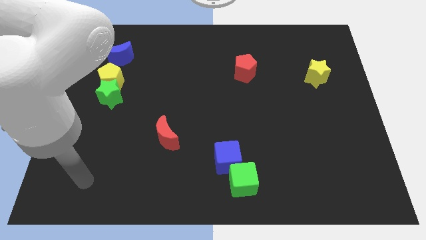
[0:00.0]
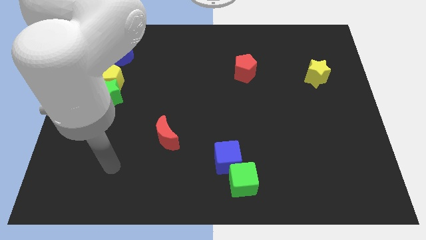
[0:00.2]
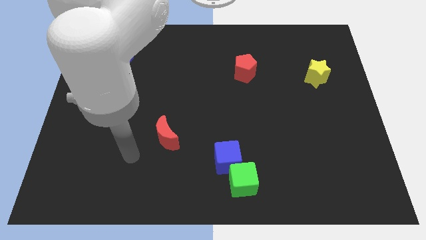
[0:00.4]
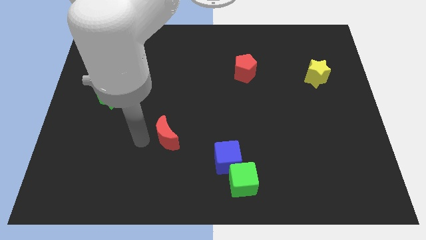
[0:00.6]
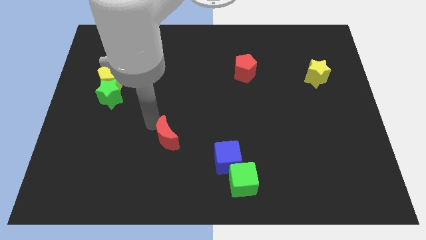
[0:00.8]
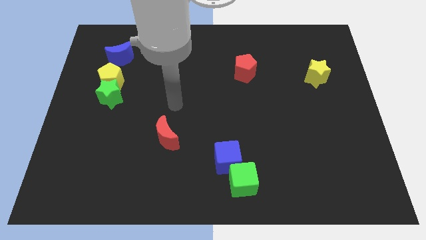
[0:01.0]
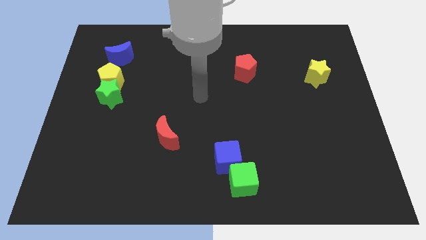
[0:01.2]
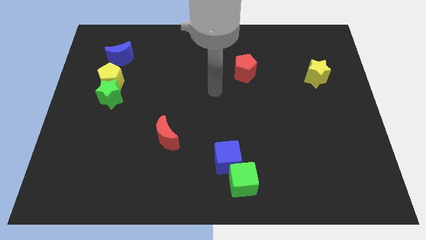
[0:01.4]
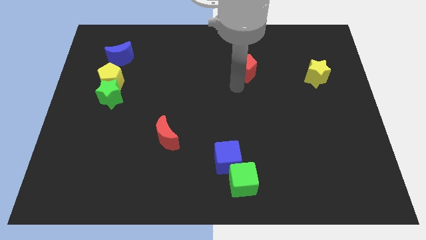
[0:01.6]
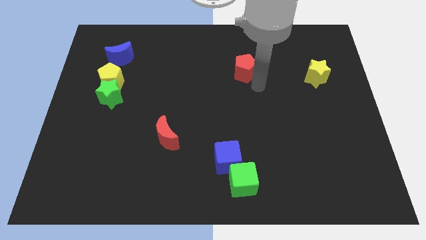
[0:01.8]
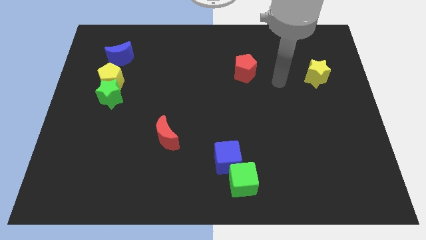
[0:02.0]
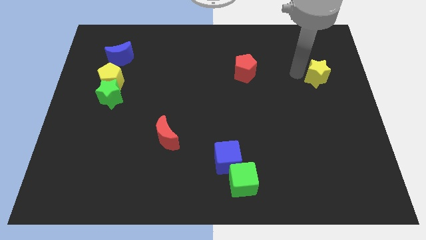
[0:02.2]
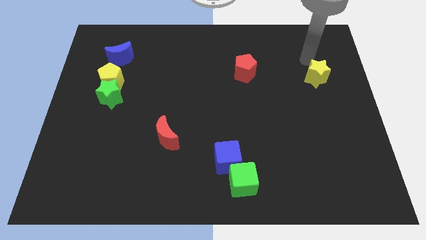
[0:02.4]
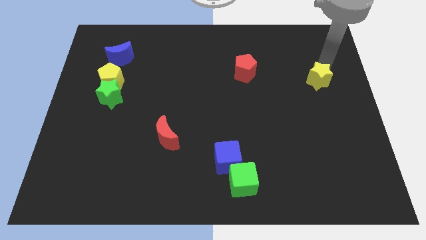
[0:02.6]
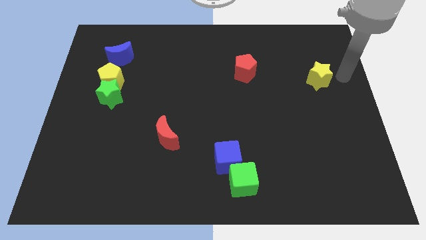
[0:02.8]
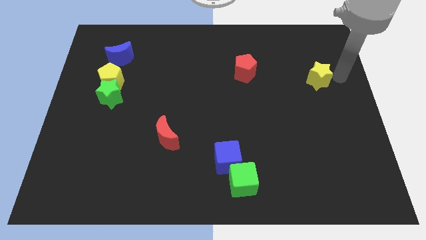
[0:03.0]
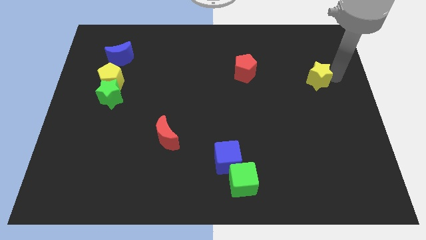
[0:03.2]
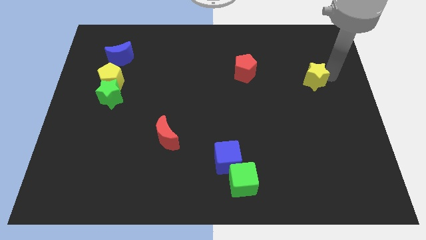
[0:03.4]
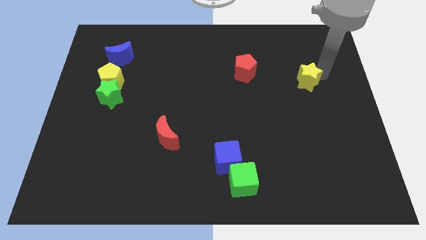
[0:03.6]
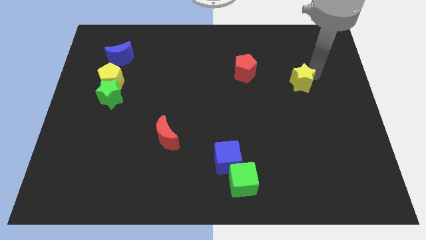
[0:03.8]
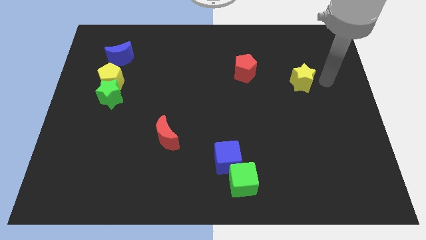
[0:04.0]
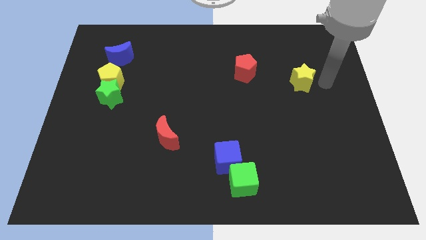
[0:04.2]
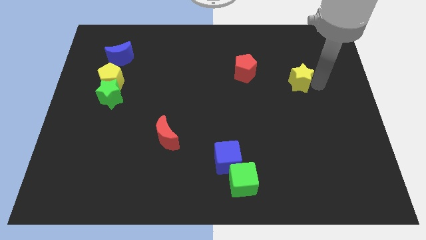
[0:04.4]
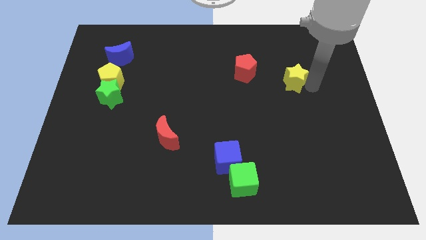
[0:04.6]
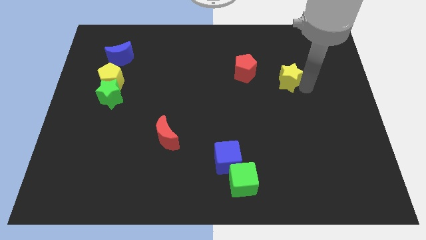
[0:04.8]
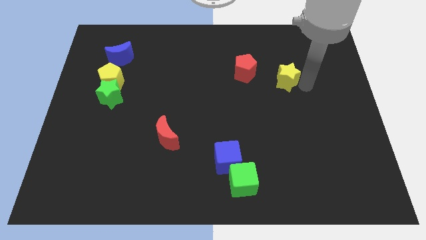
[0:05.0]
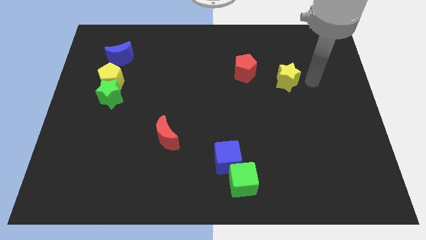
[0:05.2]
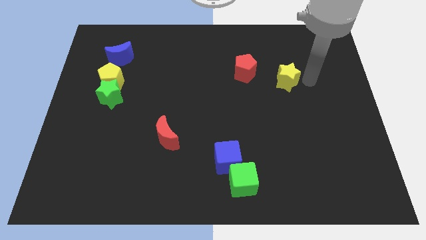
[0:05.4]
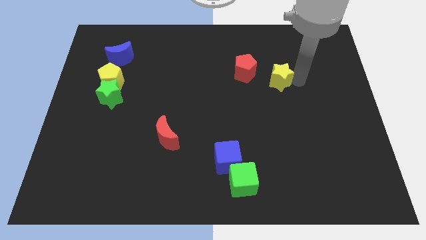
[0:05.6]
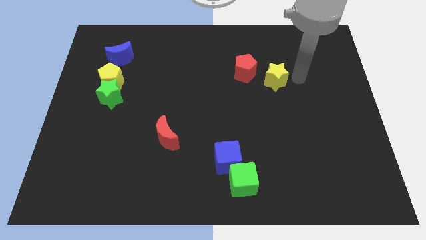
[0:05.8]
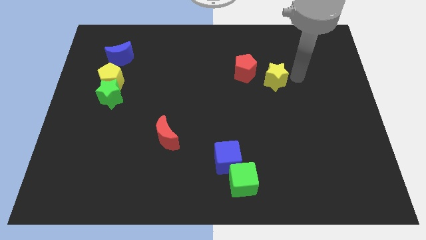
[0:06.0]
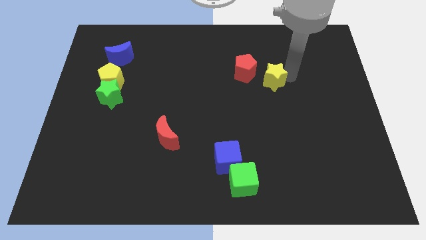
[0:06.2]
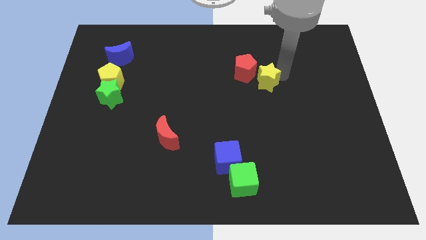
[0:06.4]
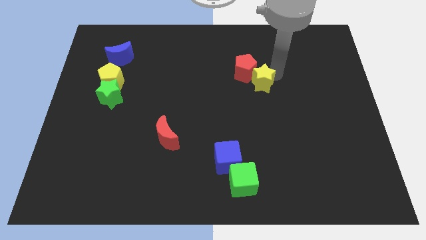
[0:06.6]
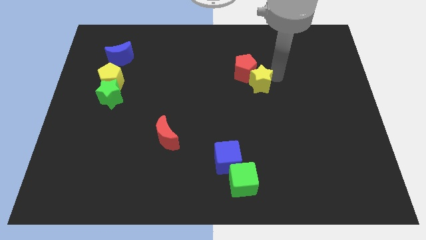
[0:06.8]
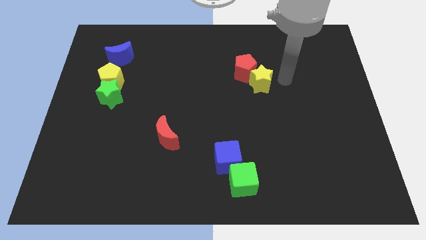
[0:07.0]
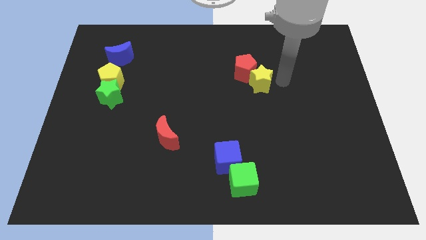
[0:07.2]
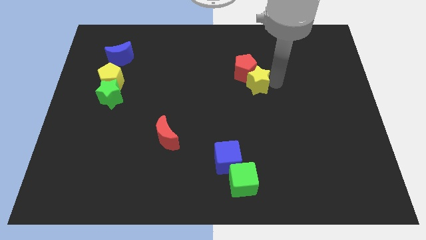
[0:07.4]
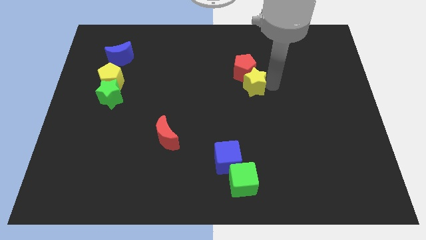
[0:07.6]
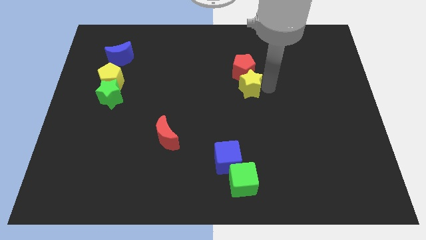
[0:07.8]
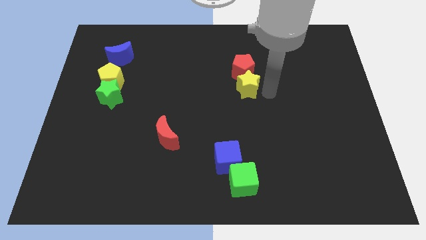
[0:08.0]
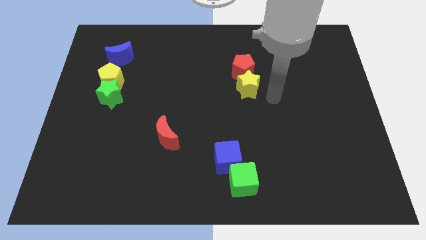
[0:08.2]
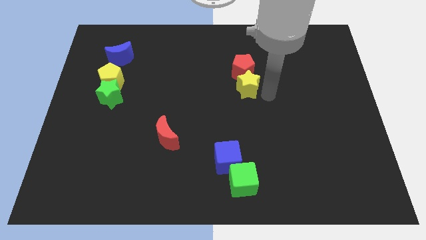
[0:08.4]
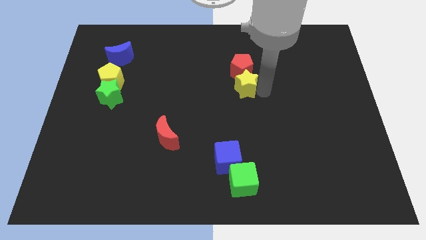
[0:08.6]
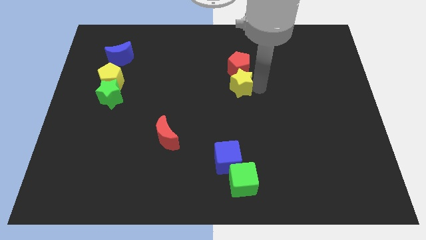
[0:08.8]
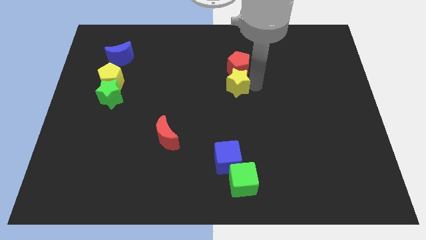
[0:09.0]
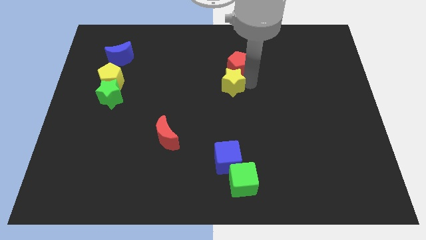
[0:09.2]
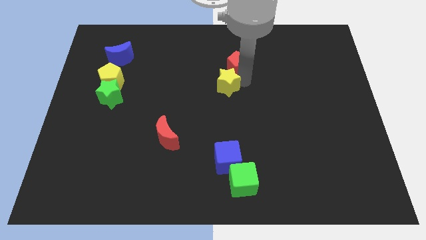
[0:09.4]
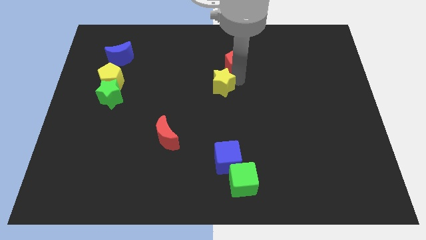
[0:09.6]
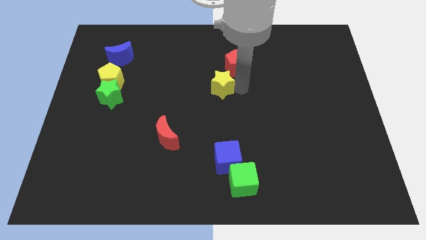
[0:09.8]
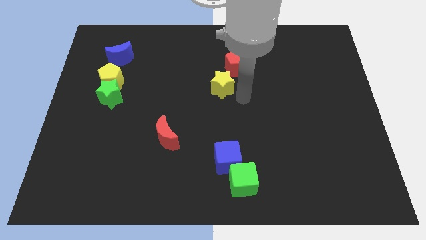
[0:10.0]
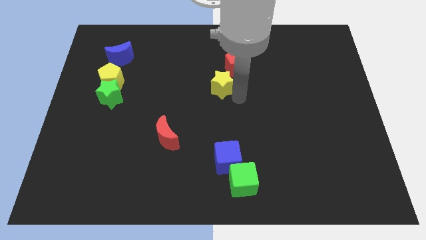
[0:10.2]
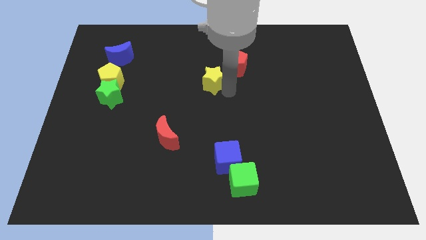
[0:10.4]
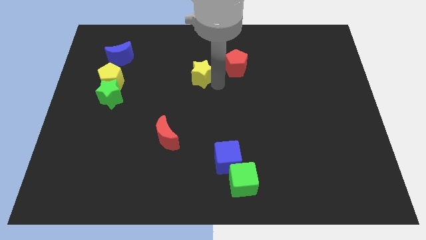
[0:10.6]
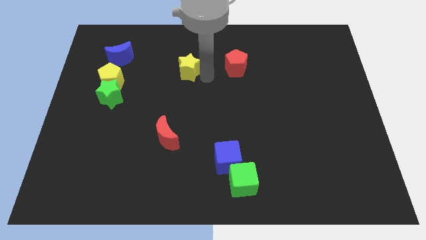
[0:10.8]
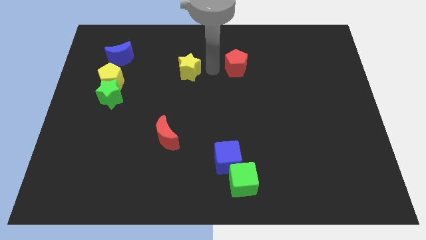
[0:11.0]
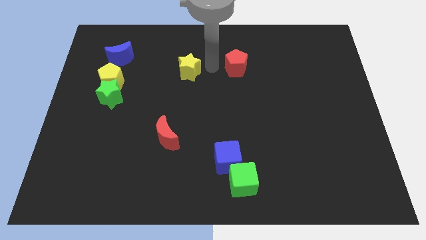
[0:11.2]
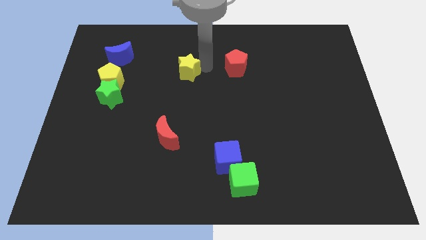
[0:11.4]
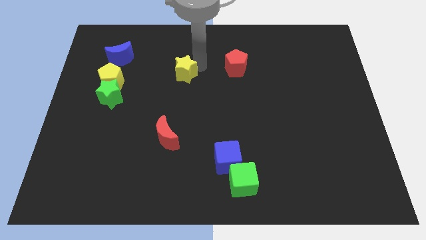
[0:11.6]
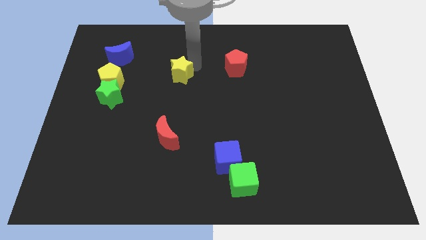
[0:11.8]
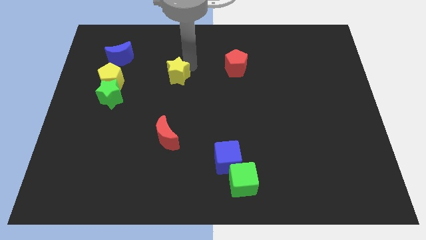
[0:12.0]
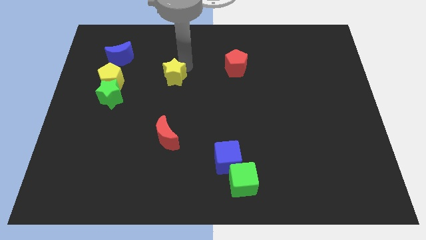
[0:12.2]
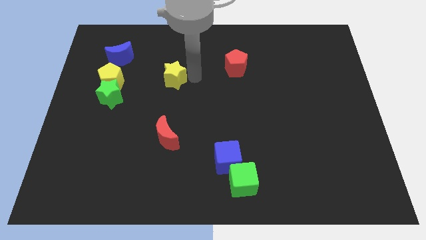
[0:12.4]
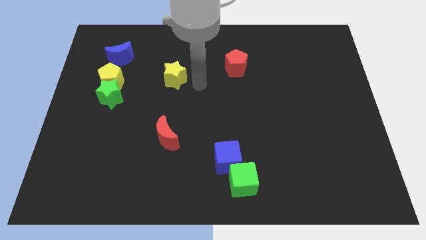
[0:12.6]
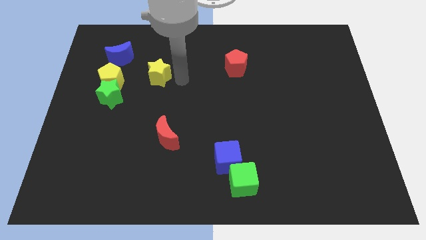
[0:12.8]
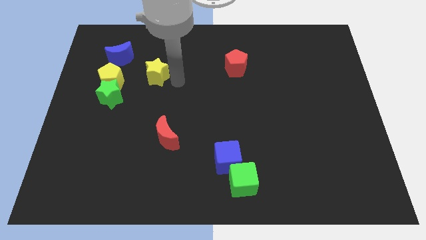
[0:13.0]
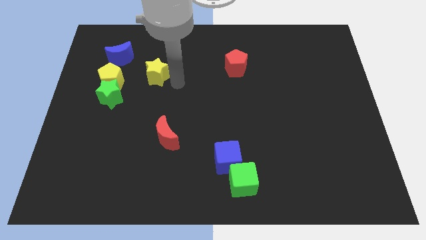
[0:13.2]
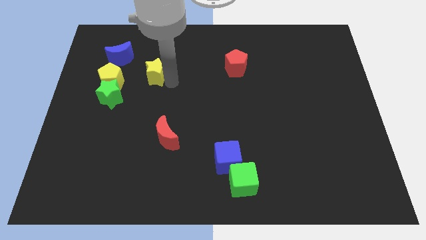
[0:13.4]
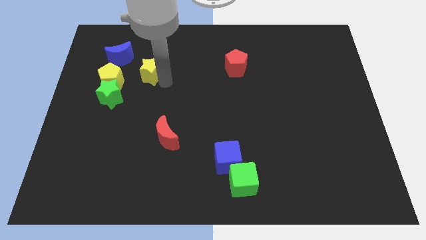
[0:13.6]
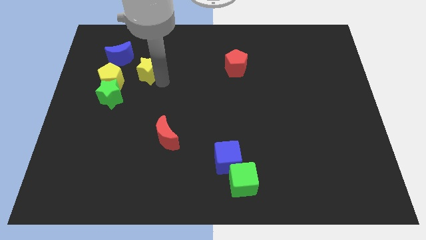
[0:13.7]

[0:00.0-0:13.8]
move the yellow star to the top right side of the yellow pentagon
